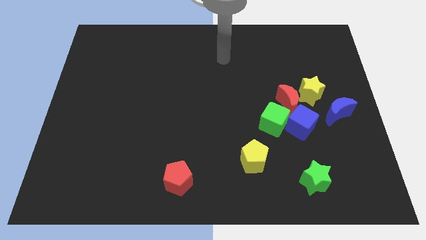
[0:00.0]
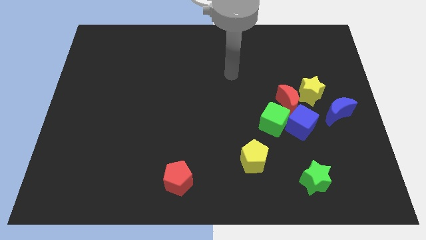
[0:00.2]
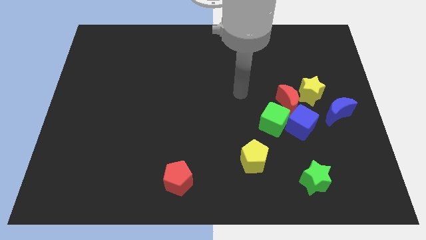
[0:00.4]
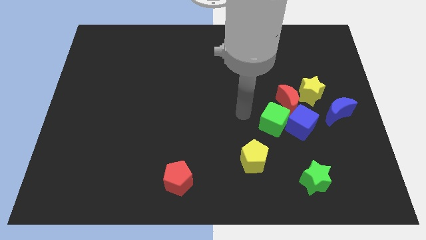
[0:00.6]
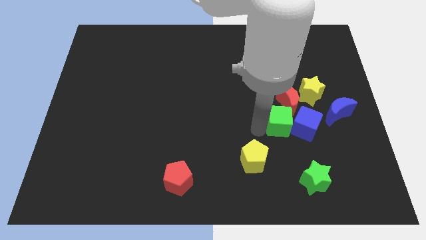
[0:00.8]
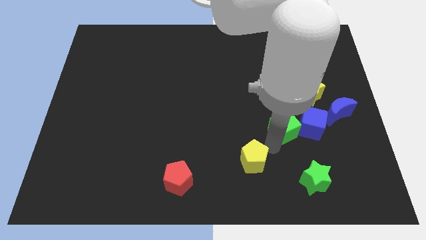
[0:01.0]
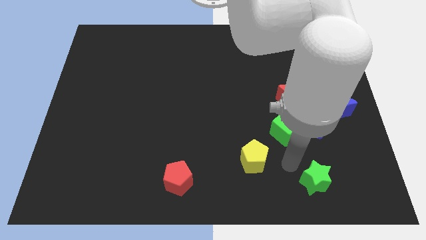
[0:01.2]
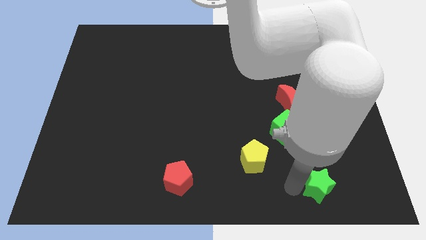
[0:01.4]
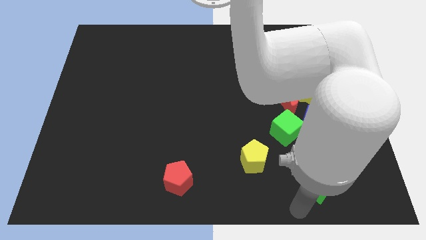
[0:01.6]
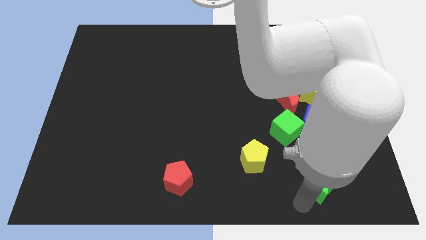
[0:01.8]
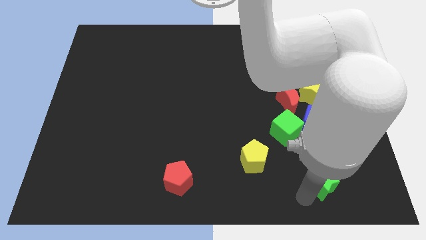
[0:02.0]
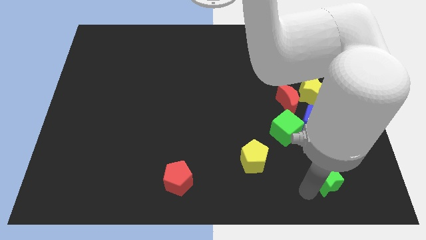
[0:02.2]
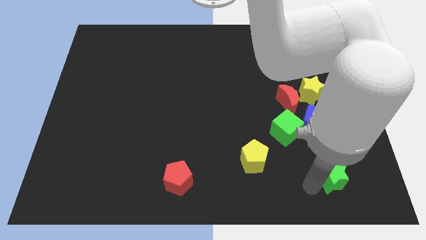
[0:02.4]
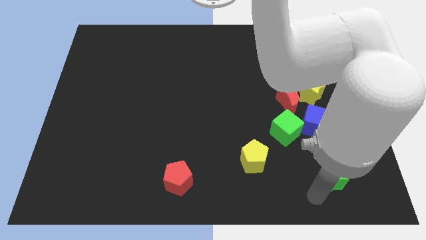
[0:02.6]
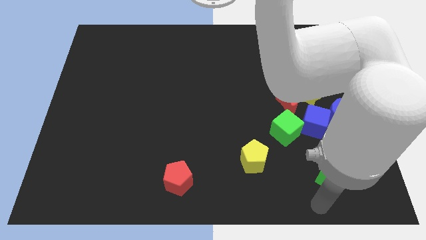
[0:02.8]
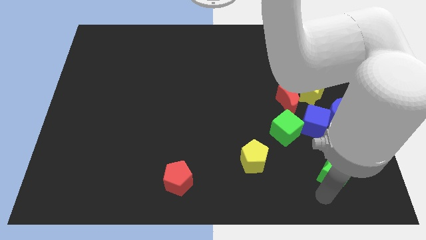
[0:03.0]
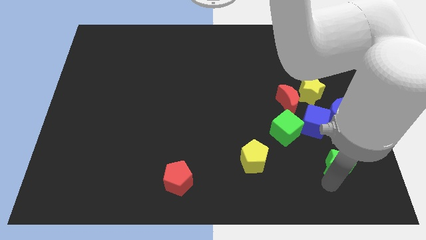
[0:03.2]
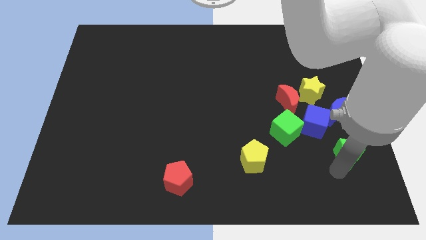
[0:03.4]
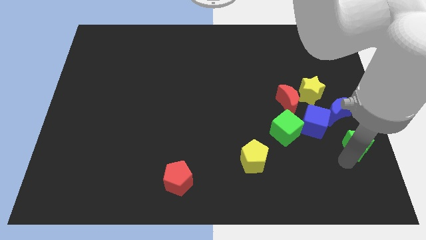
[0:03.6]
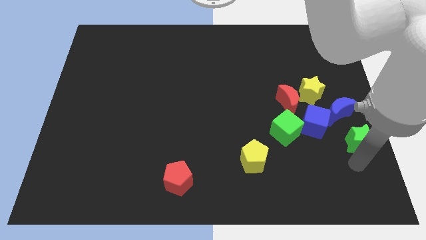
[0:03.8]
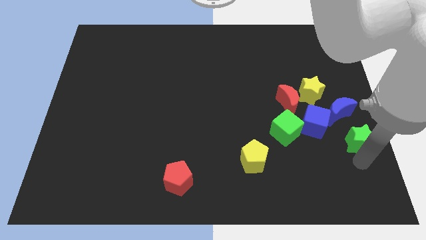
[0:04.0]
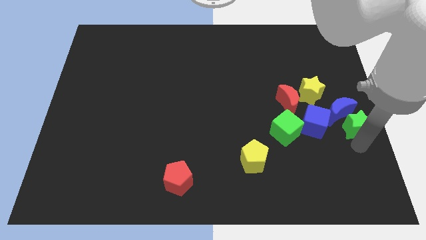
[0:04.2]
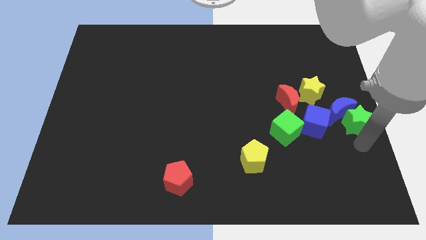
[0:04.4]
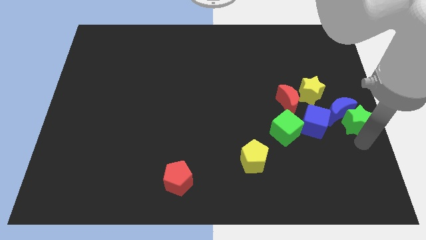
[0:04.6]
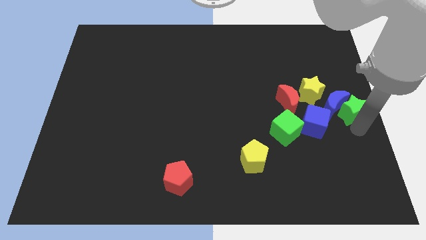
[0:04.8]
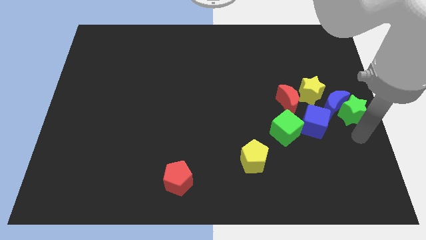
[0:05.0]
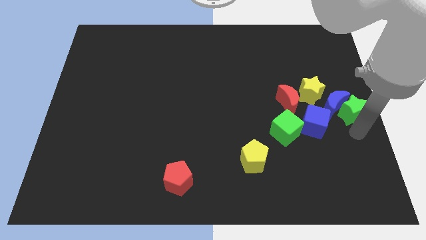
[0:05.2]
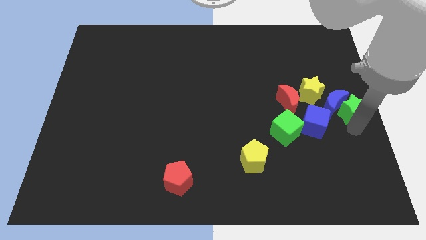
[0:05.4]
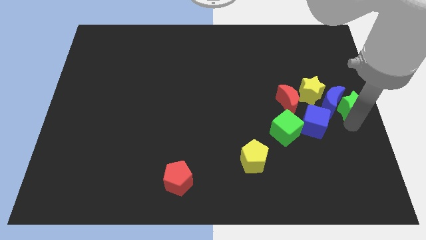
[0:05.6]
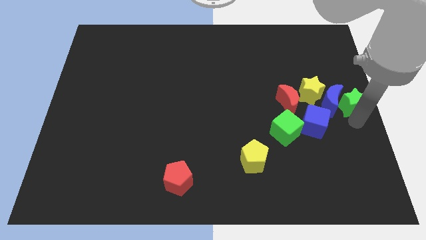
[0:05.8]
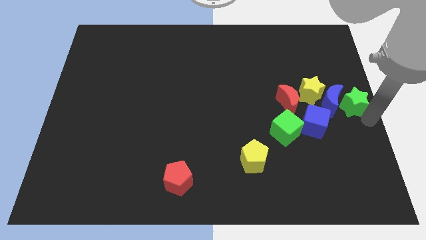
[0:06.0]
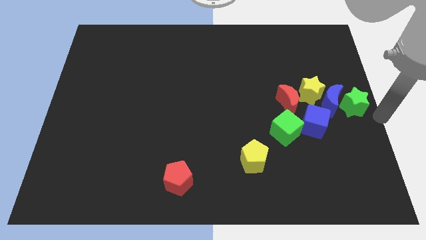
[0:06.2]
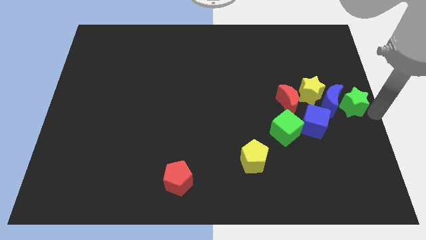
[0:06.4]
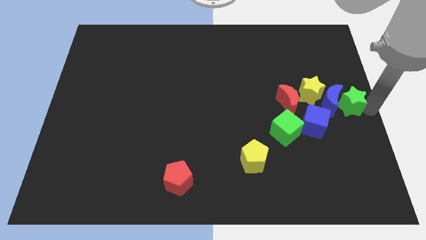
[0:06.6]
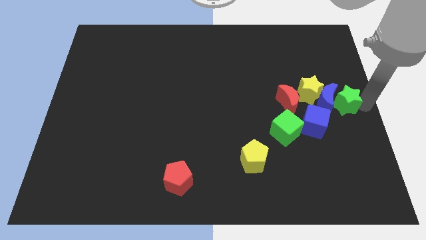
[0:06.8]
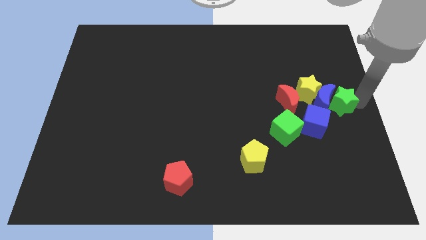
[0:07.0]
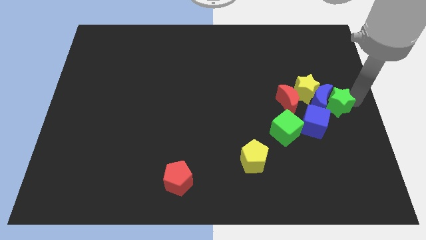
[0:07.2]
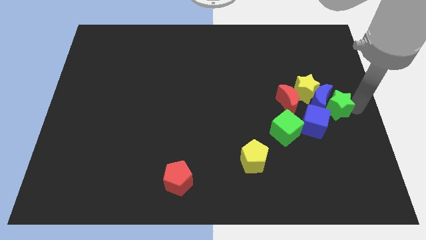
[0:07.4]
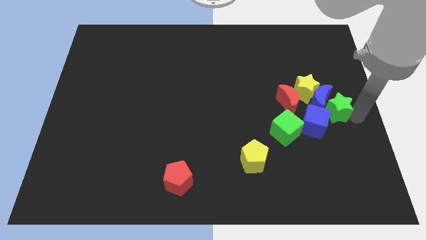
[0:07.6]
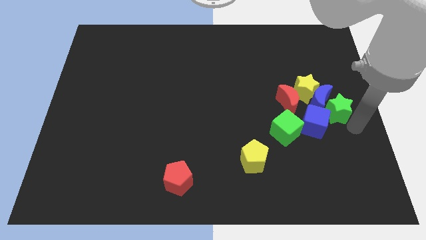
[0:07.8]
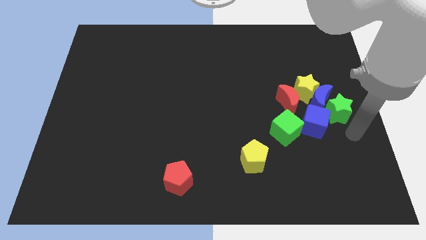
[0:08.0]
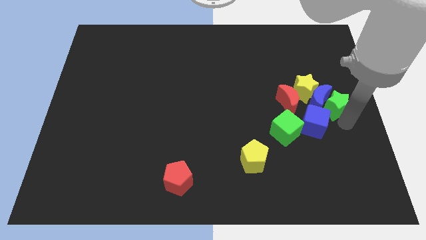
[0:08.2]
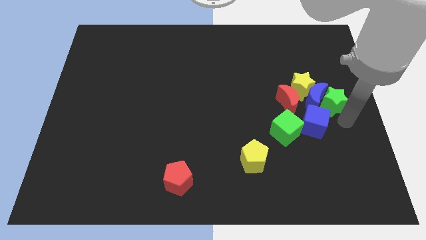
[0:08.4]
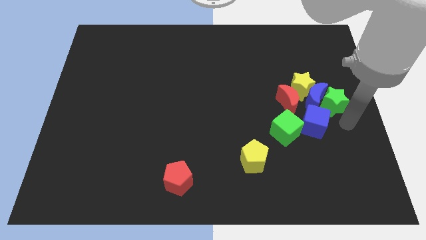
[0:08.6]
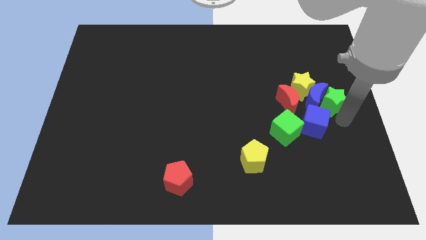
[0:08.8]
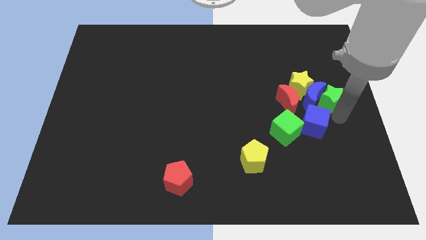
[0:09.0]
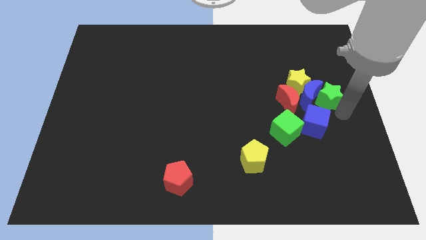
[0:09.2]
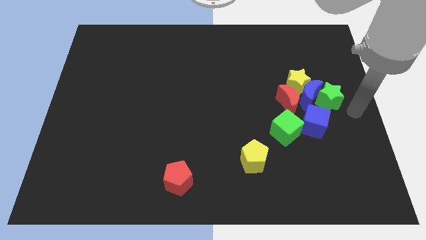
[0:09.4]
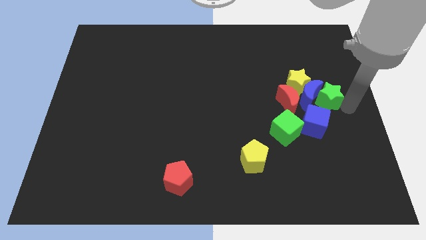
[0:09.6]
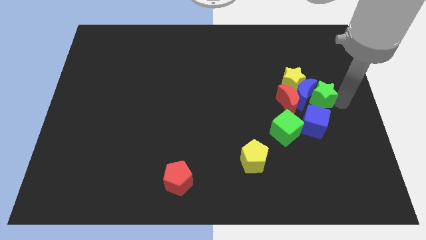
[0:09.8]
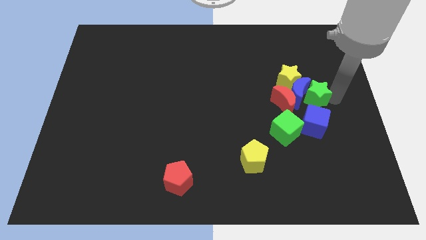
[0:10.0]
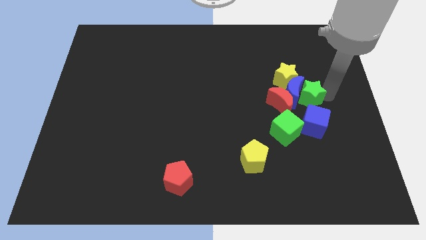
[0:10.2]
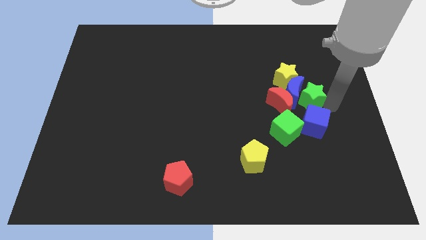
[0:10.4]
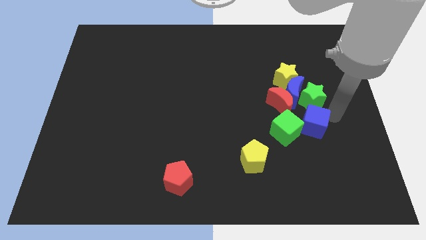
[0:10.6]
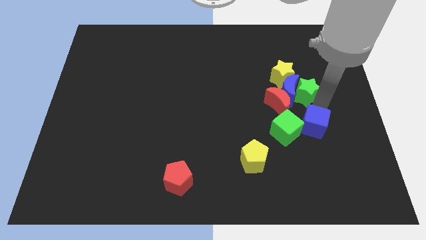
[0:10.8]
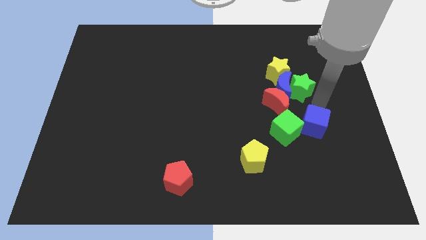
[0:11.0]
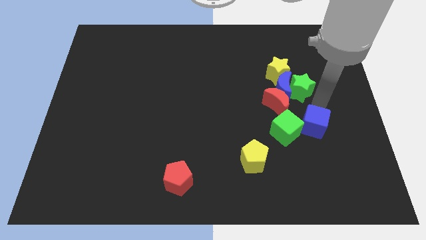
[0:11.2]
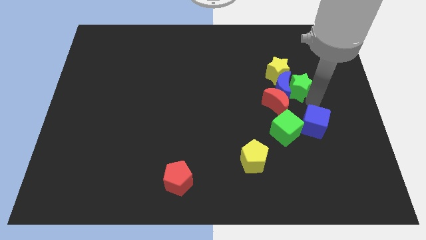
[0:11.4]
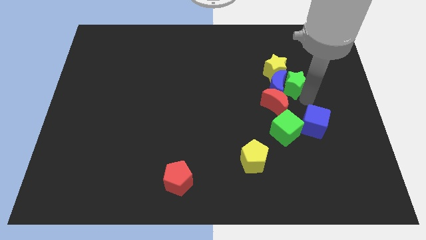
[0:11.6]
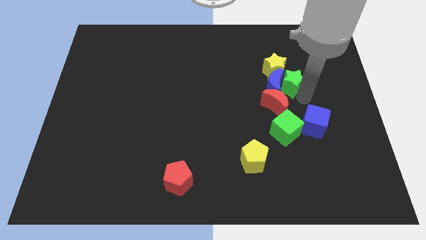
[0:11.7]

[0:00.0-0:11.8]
slide the green star to the yellow star

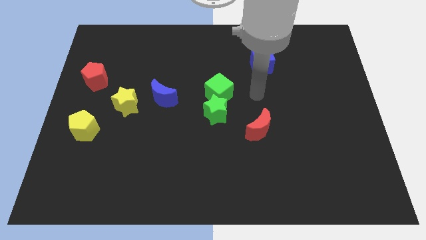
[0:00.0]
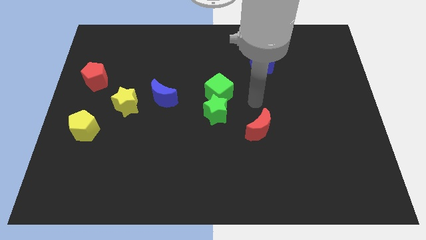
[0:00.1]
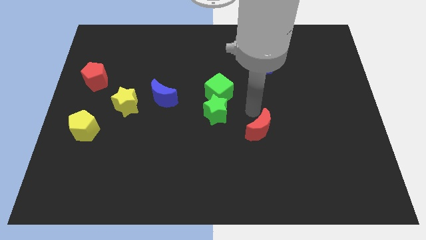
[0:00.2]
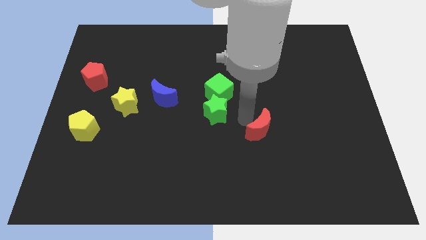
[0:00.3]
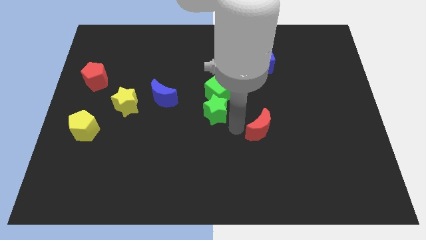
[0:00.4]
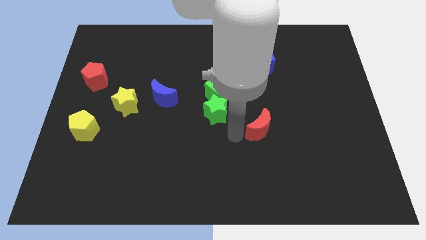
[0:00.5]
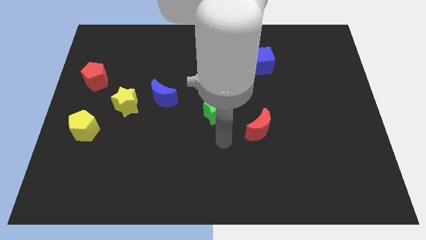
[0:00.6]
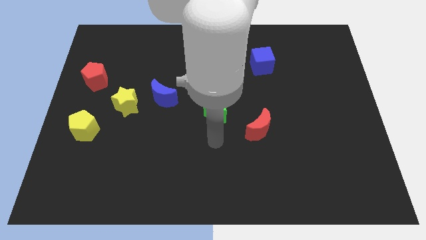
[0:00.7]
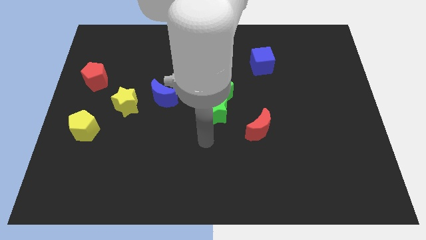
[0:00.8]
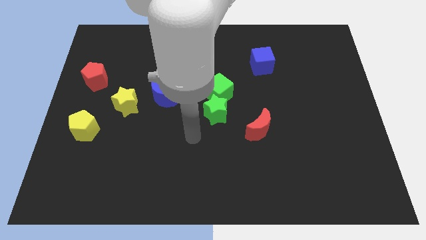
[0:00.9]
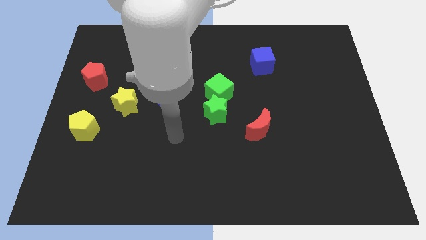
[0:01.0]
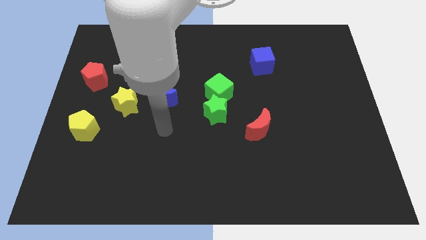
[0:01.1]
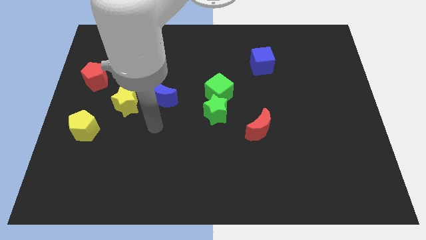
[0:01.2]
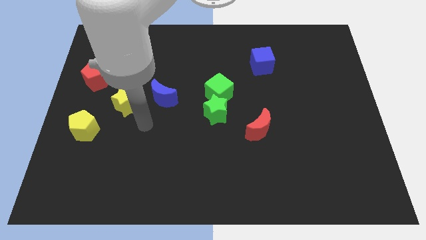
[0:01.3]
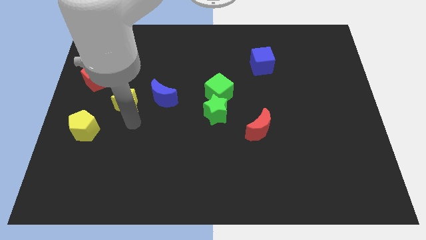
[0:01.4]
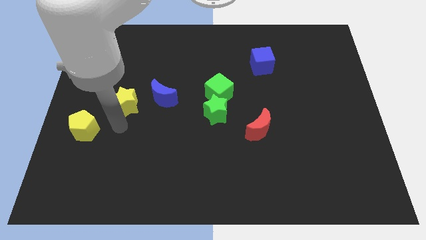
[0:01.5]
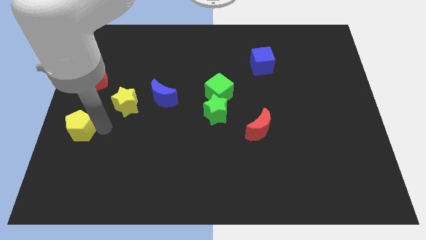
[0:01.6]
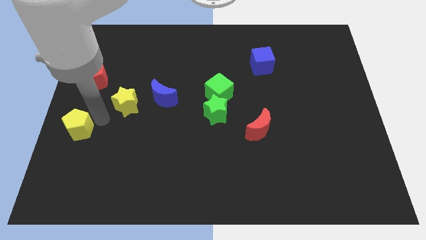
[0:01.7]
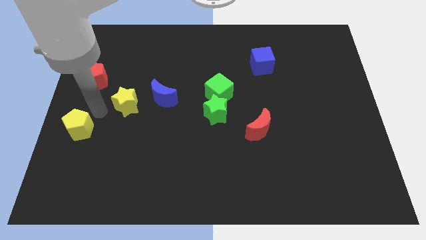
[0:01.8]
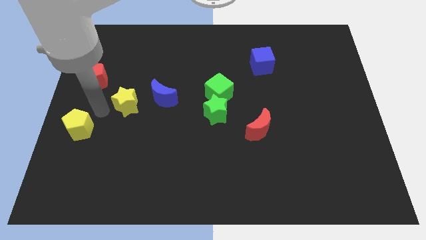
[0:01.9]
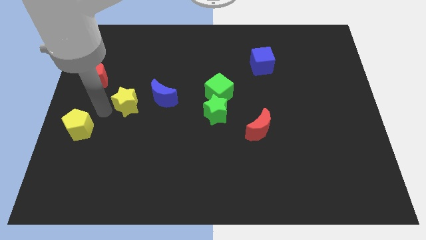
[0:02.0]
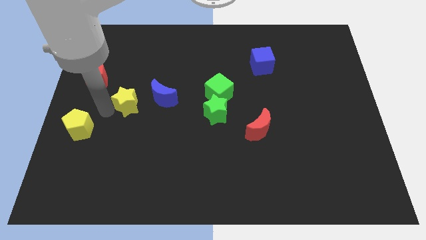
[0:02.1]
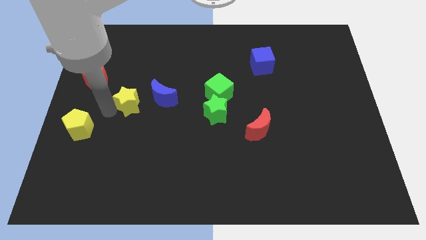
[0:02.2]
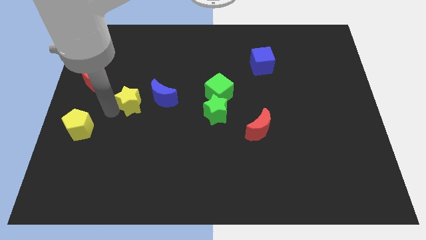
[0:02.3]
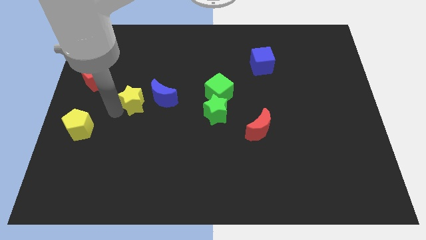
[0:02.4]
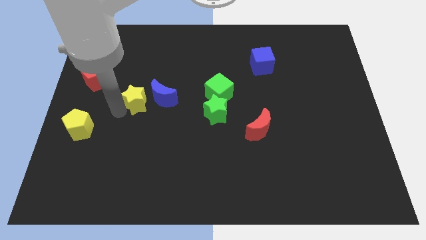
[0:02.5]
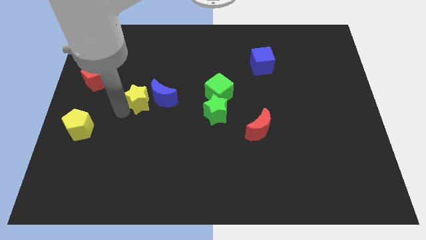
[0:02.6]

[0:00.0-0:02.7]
slide the yellow star towards the blue moon
